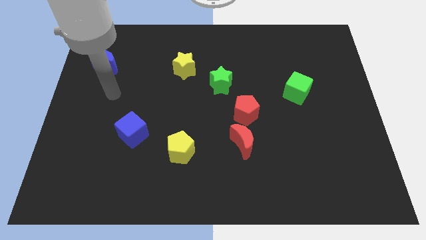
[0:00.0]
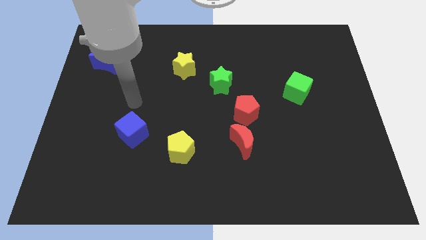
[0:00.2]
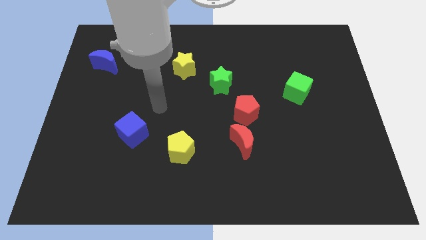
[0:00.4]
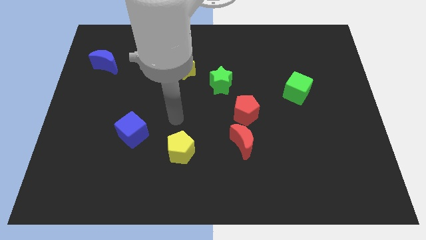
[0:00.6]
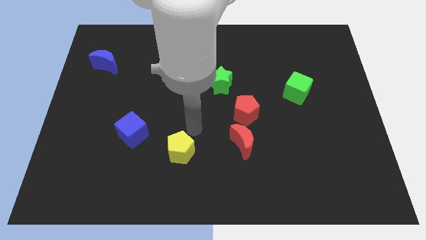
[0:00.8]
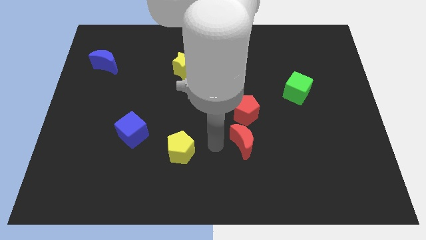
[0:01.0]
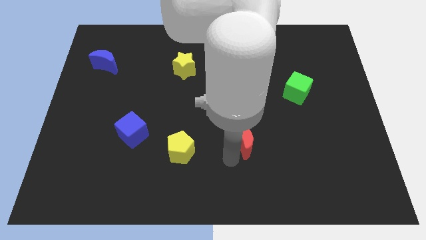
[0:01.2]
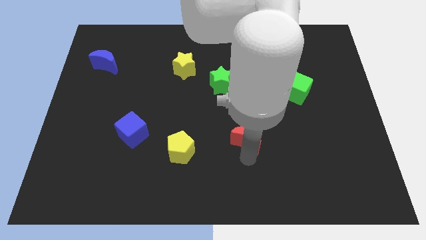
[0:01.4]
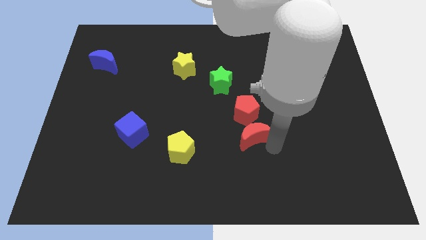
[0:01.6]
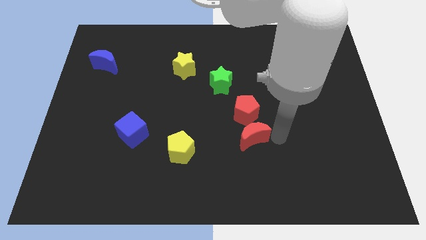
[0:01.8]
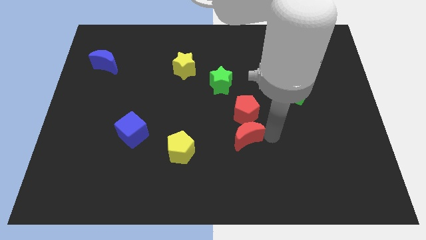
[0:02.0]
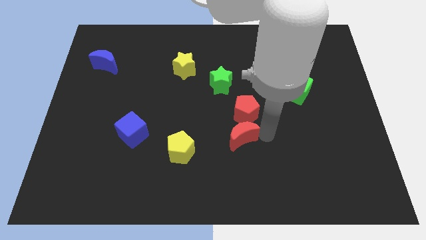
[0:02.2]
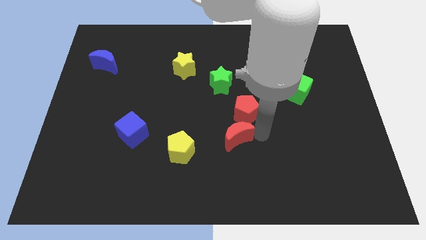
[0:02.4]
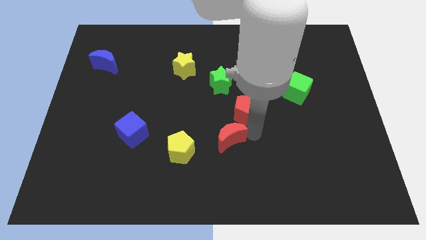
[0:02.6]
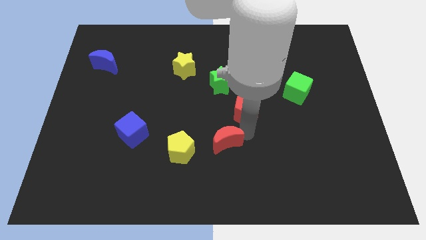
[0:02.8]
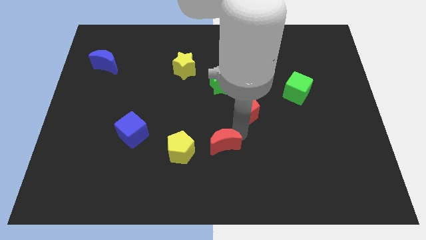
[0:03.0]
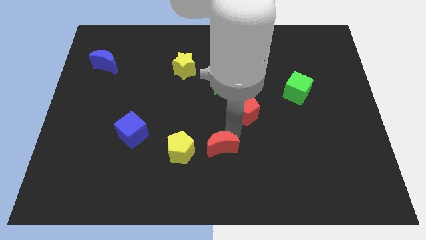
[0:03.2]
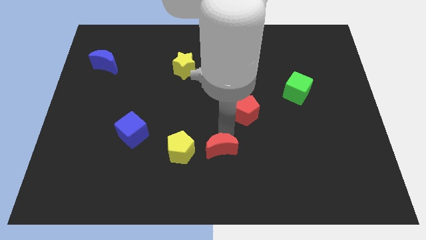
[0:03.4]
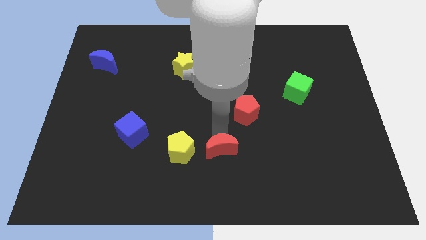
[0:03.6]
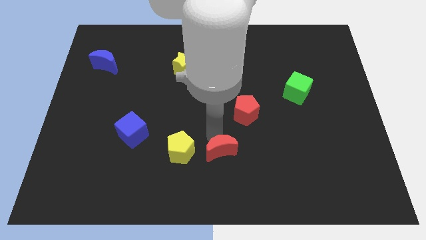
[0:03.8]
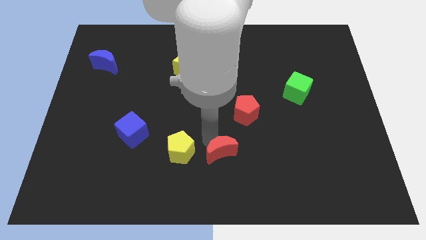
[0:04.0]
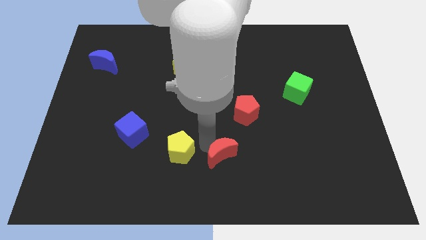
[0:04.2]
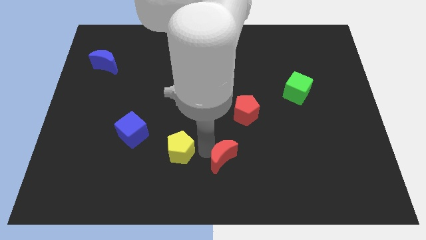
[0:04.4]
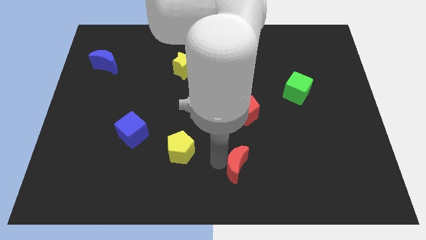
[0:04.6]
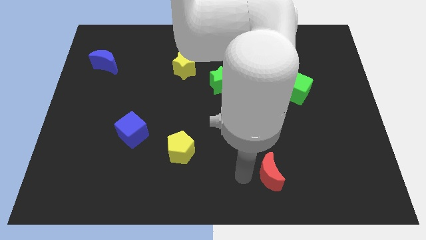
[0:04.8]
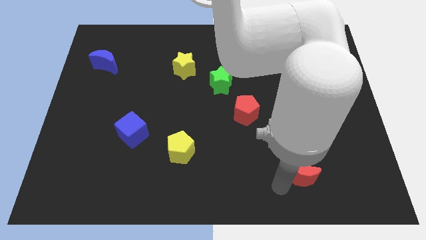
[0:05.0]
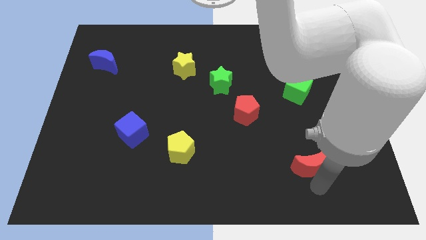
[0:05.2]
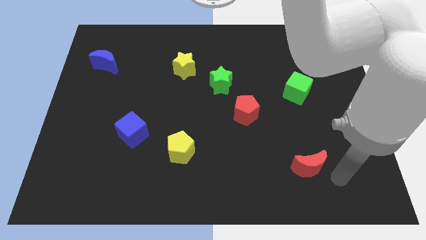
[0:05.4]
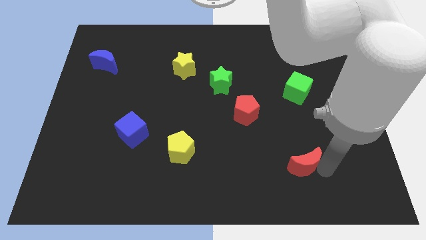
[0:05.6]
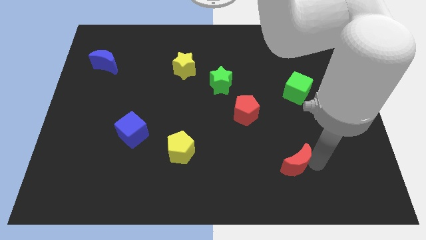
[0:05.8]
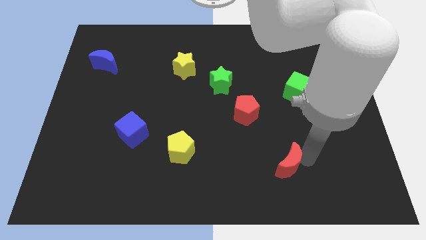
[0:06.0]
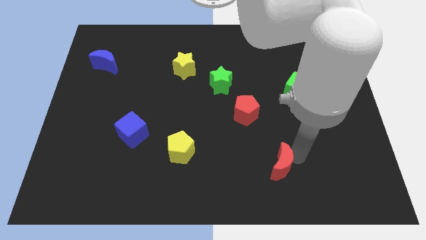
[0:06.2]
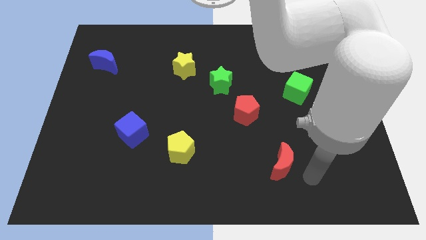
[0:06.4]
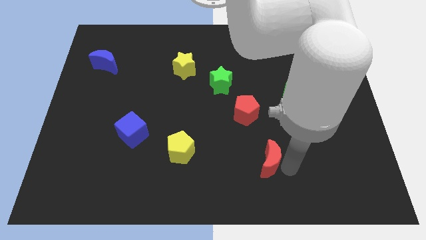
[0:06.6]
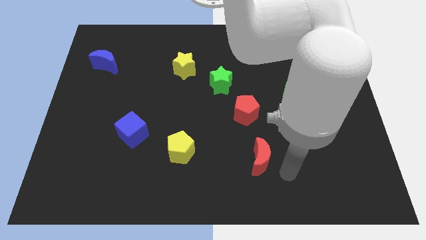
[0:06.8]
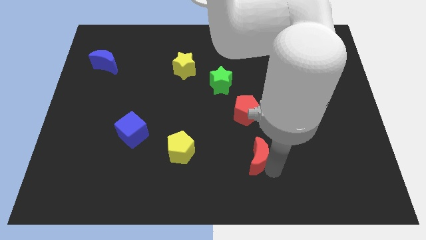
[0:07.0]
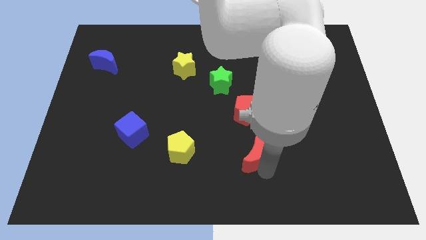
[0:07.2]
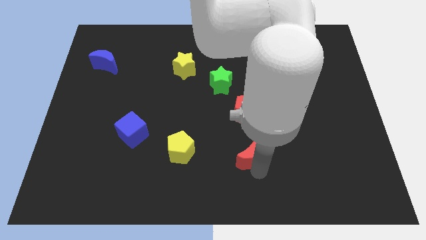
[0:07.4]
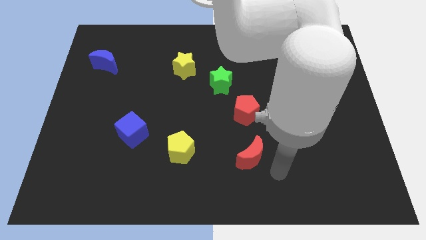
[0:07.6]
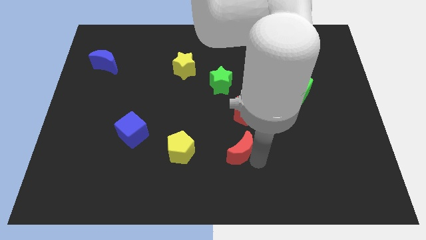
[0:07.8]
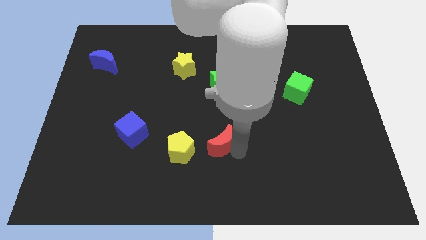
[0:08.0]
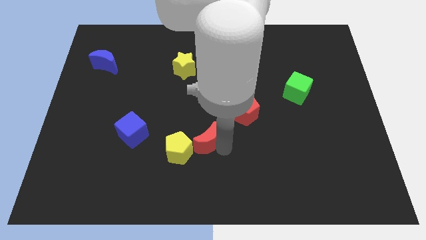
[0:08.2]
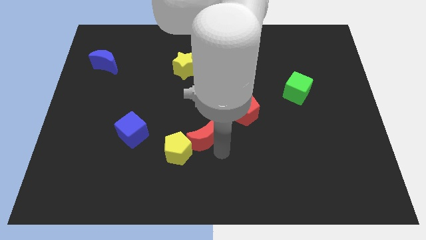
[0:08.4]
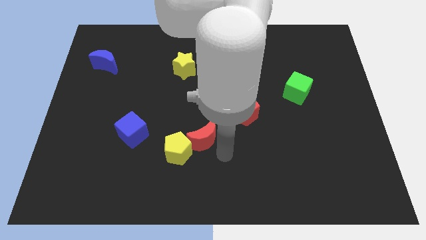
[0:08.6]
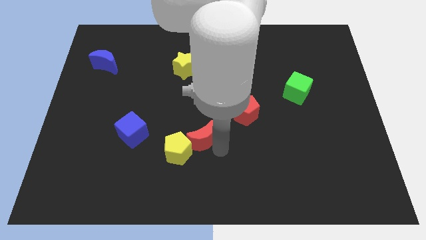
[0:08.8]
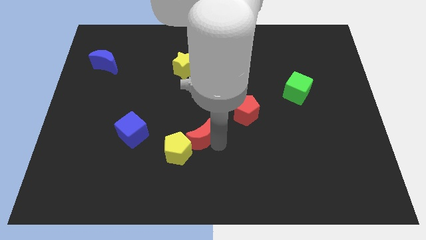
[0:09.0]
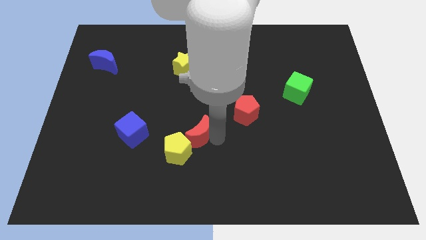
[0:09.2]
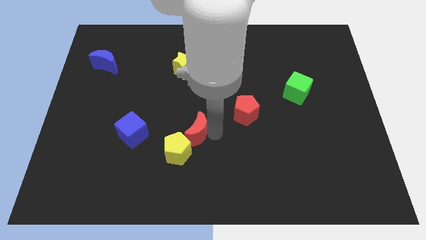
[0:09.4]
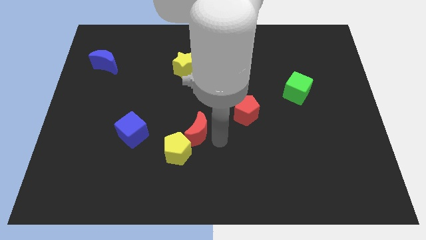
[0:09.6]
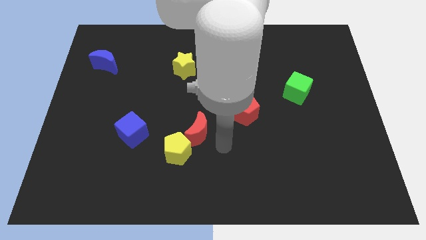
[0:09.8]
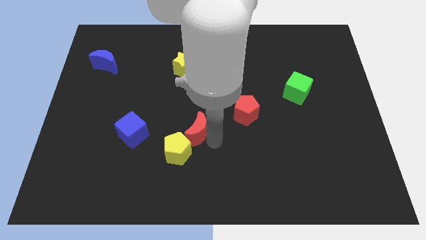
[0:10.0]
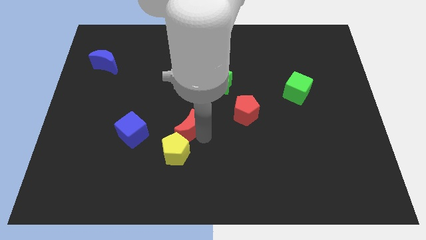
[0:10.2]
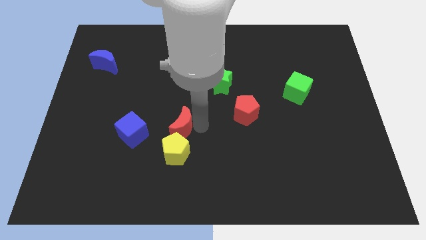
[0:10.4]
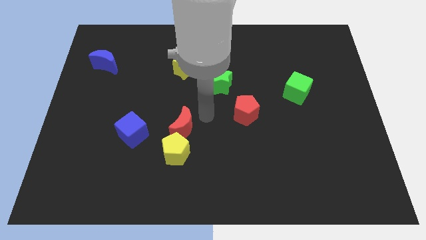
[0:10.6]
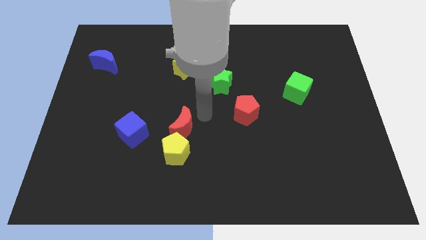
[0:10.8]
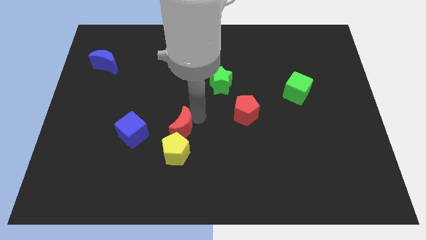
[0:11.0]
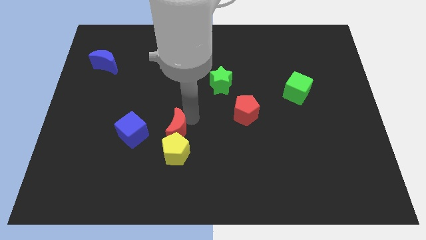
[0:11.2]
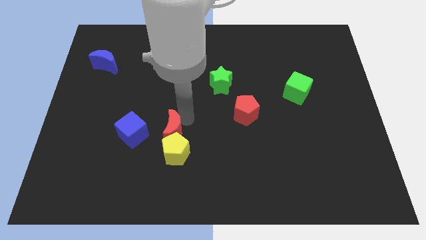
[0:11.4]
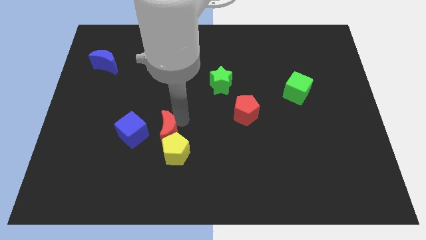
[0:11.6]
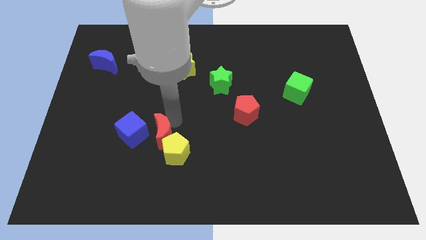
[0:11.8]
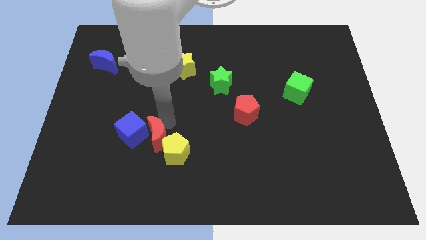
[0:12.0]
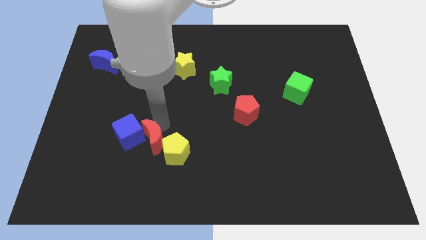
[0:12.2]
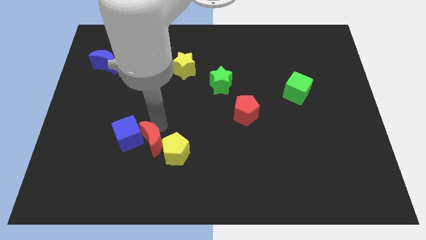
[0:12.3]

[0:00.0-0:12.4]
slide the red moon left

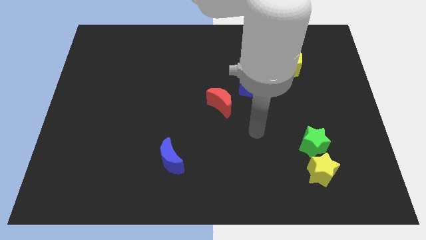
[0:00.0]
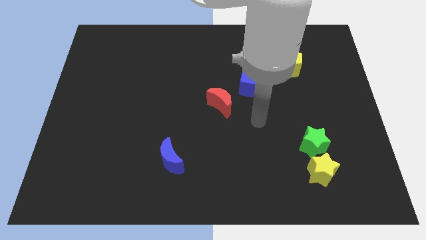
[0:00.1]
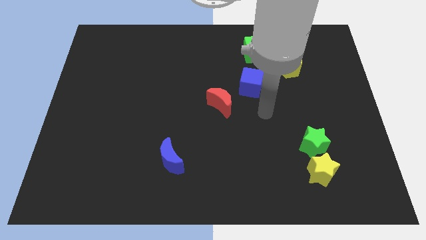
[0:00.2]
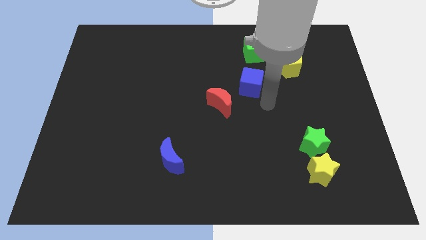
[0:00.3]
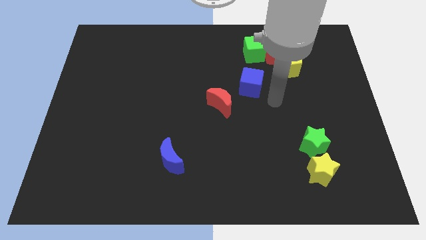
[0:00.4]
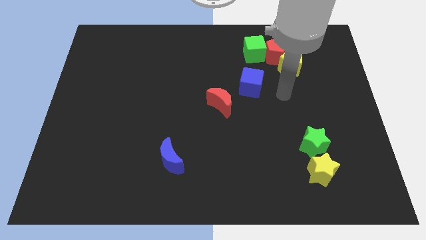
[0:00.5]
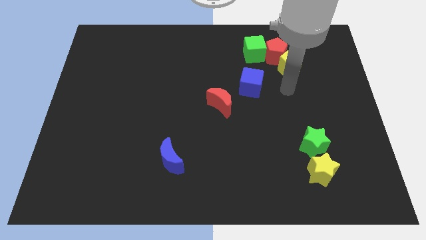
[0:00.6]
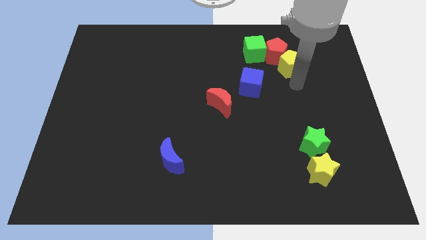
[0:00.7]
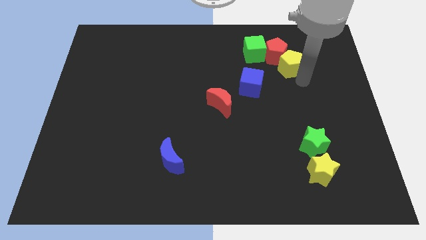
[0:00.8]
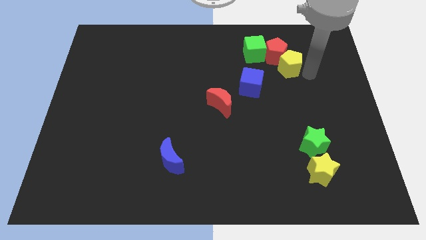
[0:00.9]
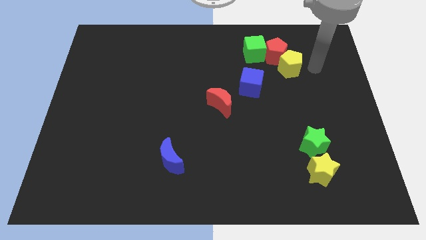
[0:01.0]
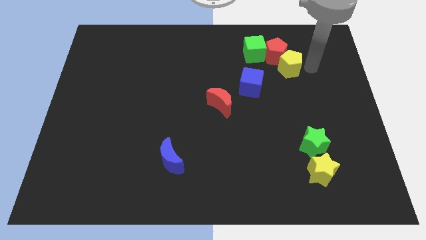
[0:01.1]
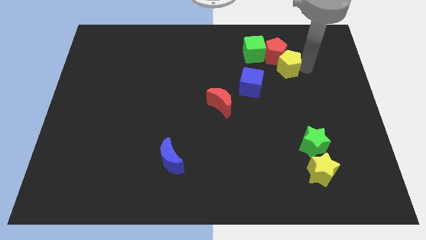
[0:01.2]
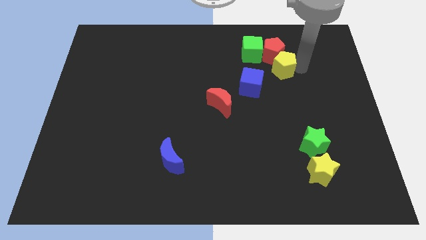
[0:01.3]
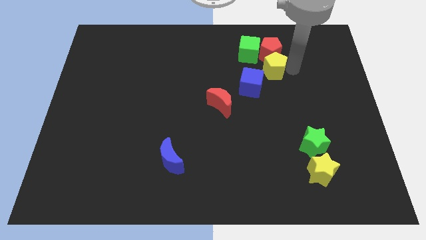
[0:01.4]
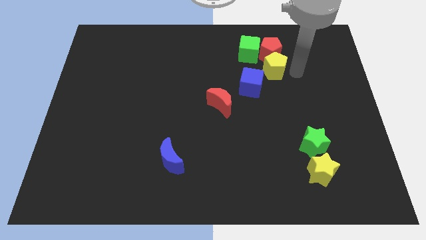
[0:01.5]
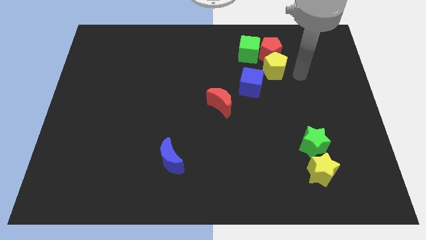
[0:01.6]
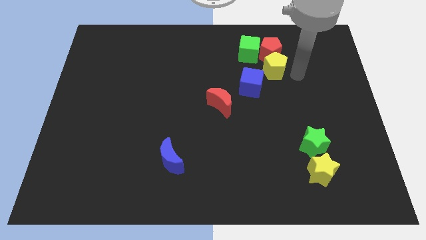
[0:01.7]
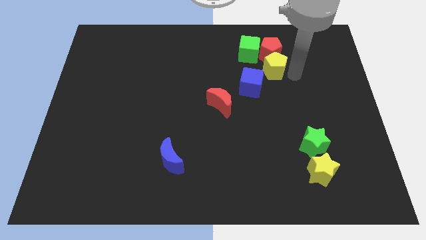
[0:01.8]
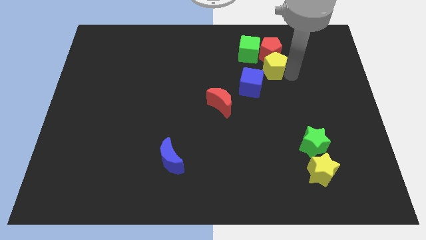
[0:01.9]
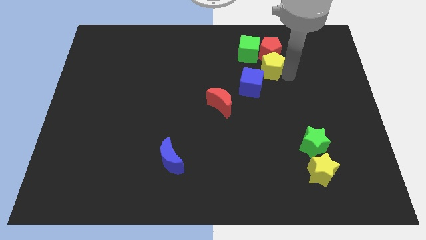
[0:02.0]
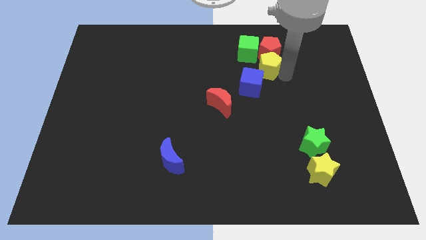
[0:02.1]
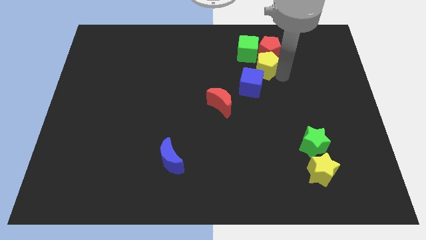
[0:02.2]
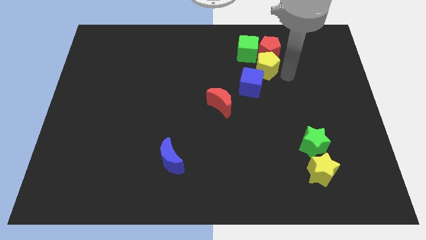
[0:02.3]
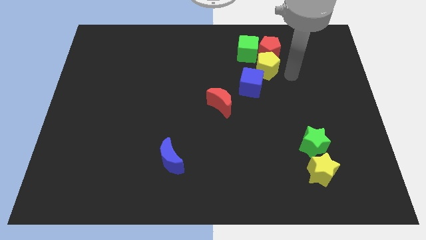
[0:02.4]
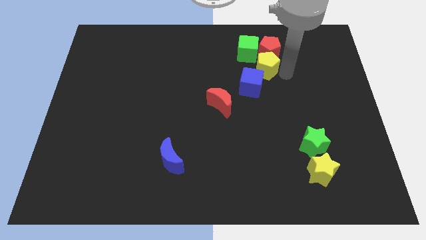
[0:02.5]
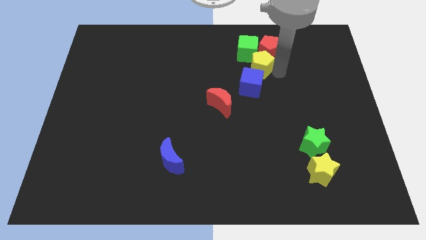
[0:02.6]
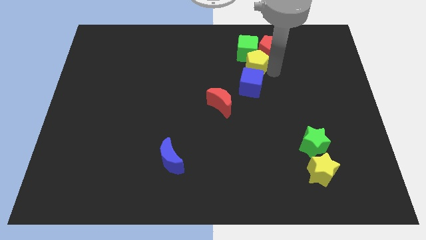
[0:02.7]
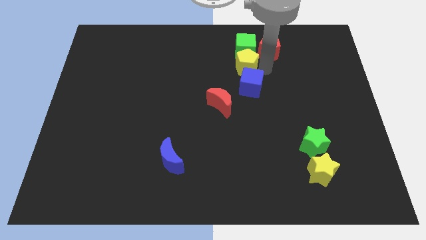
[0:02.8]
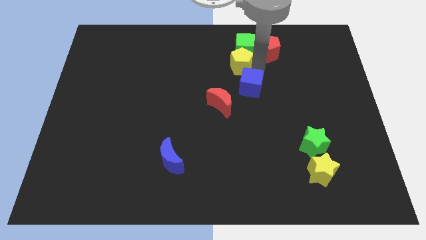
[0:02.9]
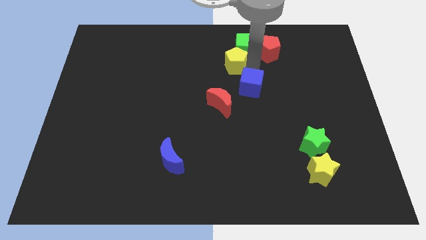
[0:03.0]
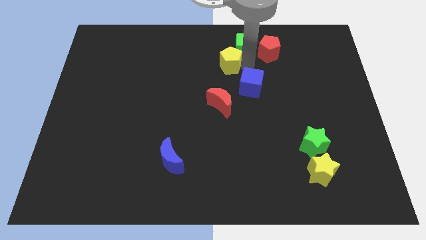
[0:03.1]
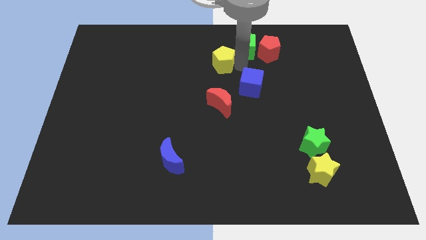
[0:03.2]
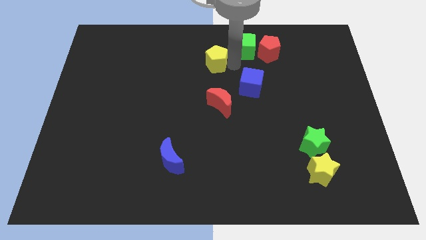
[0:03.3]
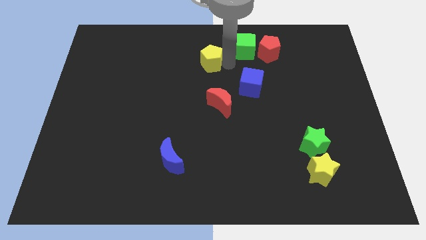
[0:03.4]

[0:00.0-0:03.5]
slide the yellow pentagon left
